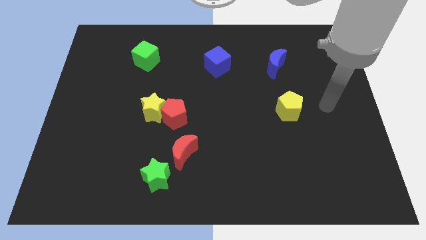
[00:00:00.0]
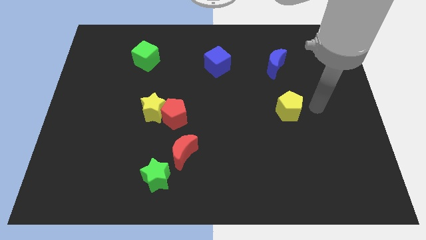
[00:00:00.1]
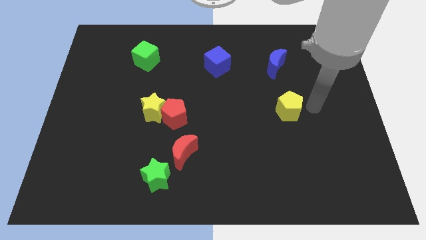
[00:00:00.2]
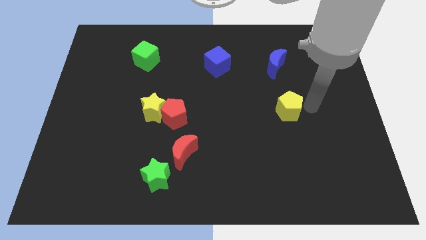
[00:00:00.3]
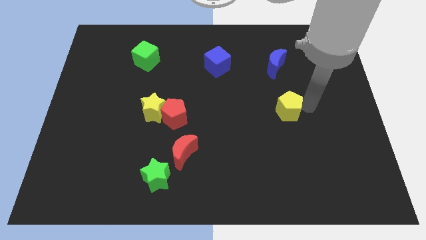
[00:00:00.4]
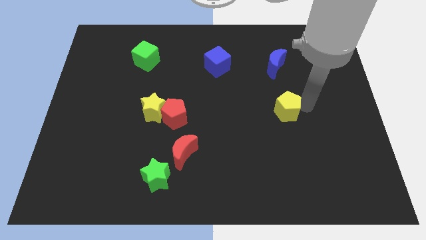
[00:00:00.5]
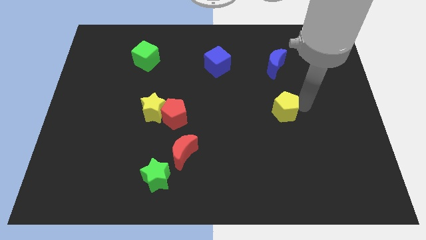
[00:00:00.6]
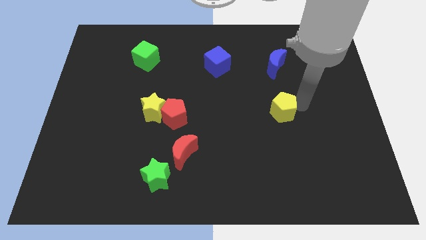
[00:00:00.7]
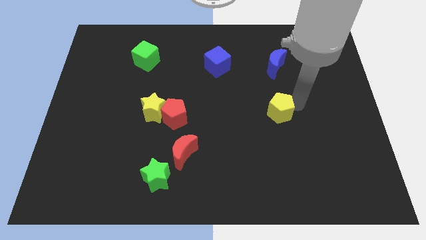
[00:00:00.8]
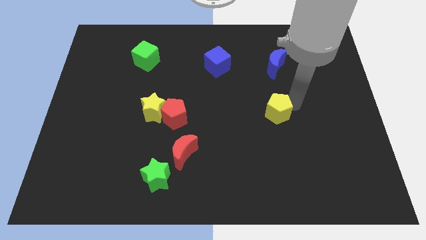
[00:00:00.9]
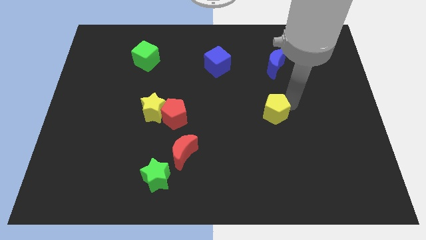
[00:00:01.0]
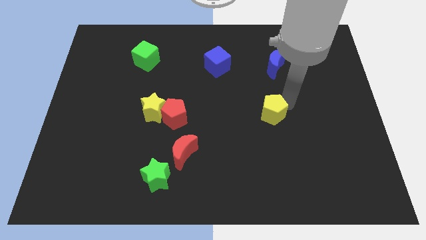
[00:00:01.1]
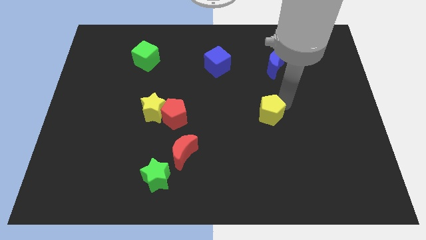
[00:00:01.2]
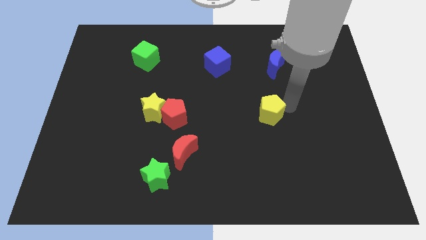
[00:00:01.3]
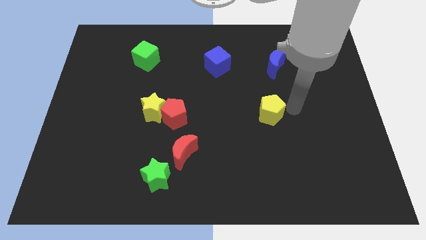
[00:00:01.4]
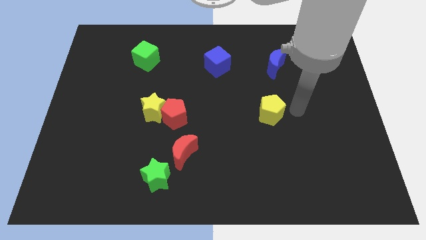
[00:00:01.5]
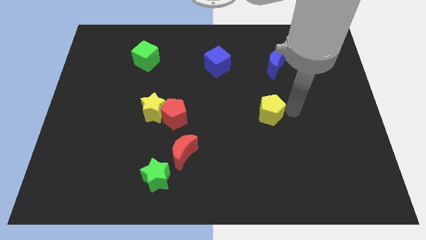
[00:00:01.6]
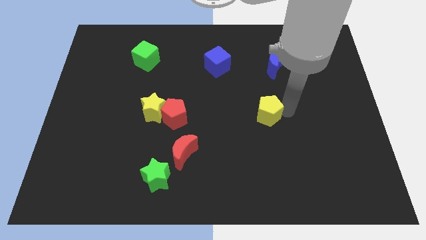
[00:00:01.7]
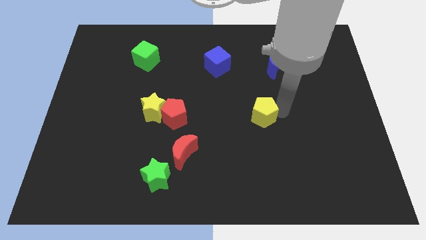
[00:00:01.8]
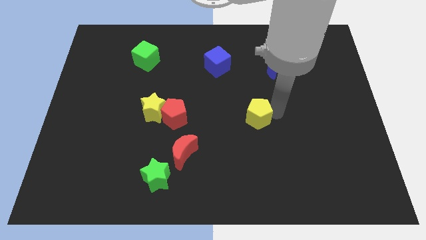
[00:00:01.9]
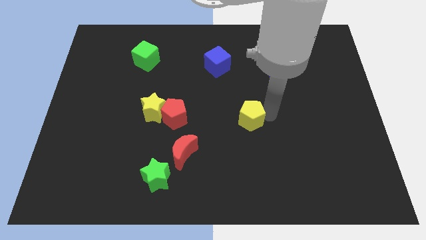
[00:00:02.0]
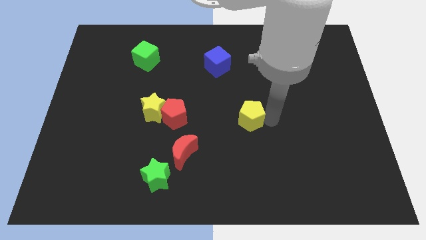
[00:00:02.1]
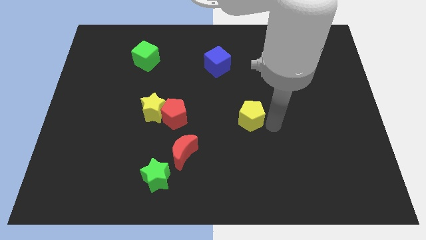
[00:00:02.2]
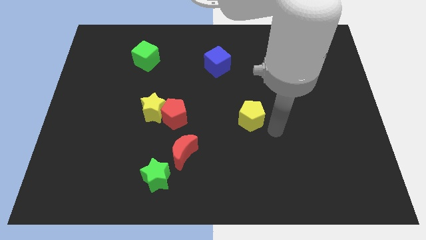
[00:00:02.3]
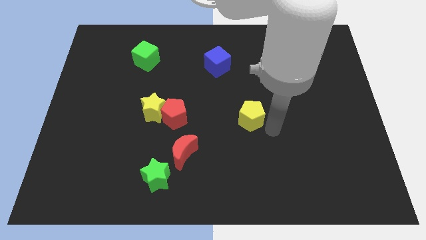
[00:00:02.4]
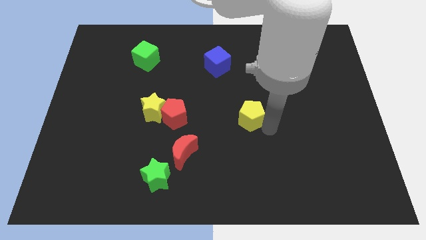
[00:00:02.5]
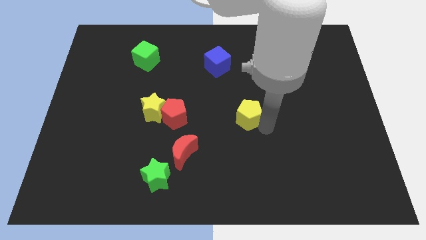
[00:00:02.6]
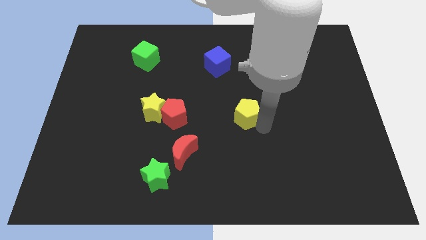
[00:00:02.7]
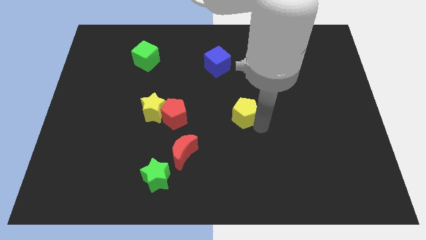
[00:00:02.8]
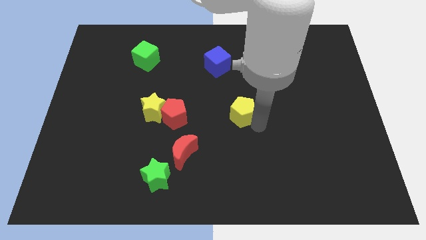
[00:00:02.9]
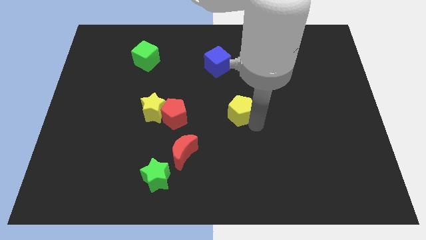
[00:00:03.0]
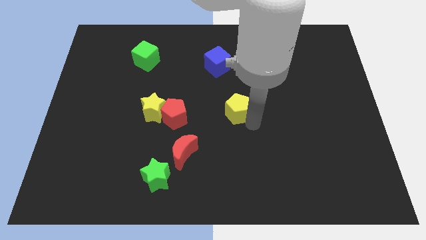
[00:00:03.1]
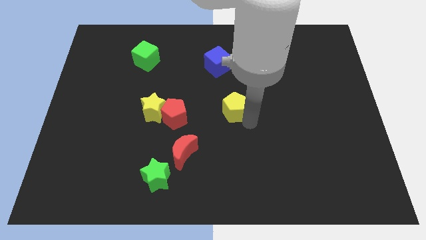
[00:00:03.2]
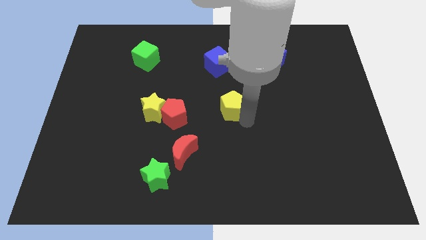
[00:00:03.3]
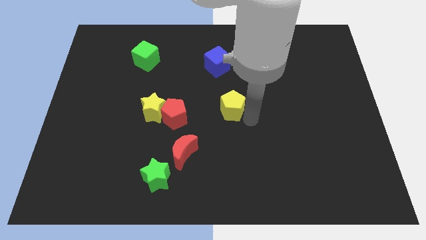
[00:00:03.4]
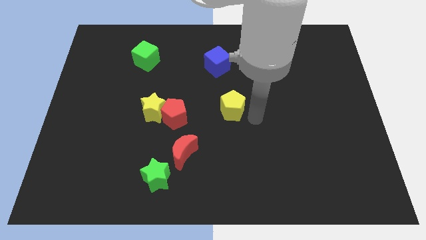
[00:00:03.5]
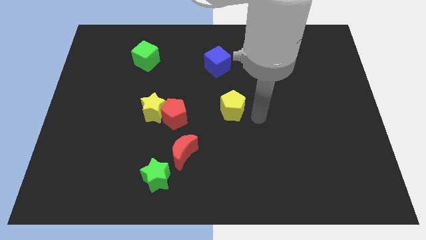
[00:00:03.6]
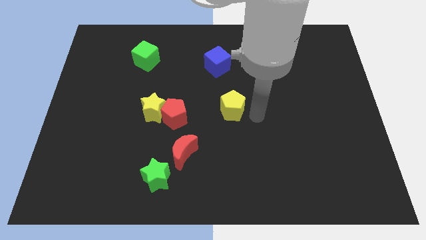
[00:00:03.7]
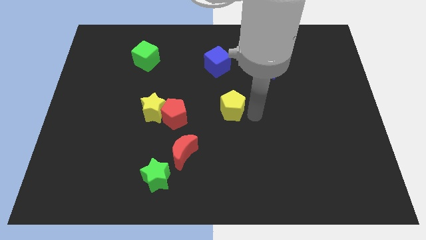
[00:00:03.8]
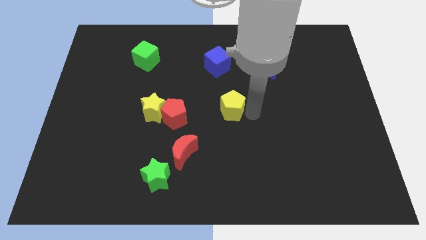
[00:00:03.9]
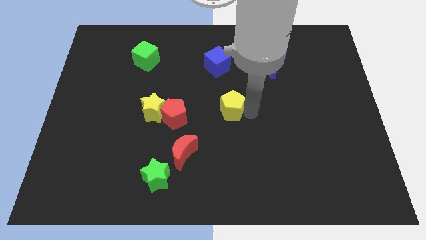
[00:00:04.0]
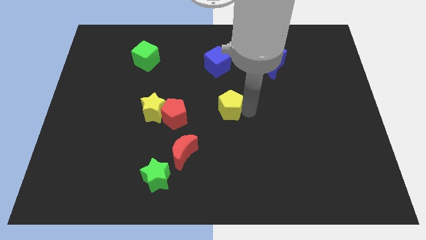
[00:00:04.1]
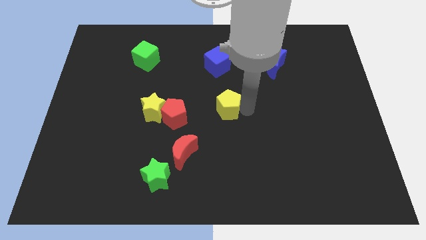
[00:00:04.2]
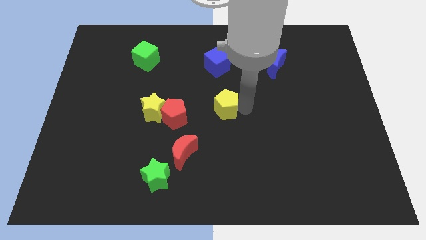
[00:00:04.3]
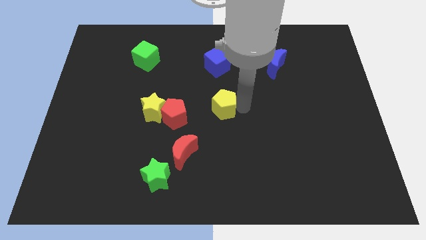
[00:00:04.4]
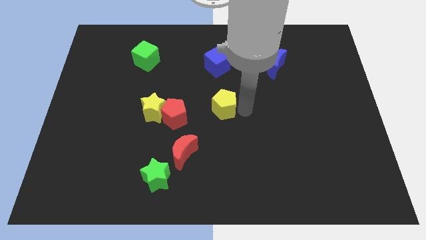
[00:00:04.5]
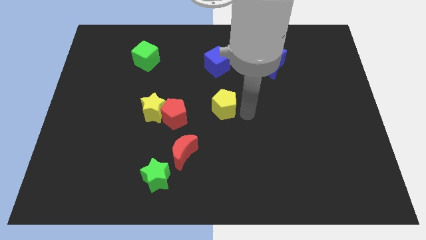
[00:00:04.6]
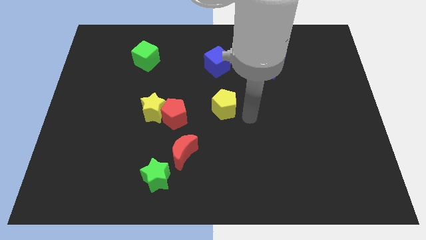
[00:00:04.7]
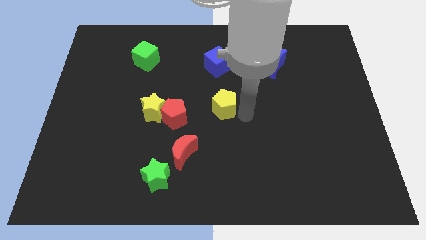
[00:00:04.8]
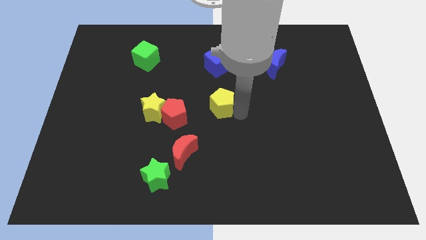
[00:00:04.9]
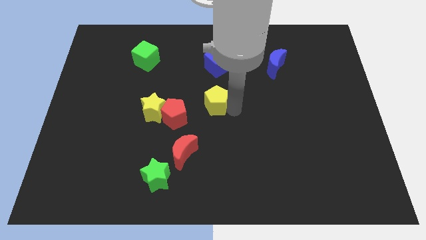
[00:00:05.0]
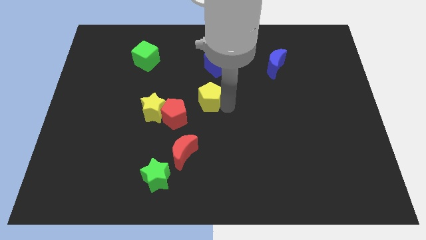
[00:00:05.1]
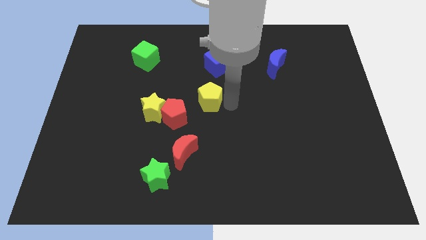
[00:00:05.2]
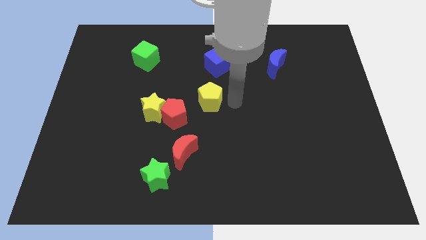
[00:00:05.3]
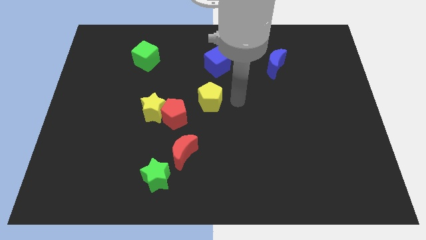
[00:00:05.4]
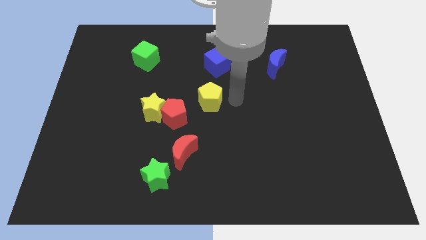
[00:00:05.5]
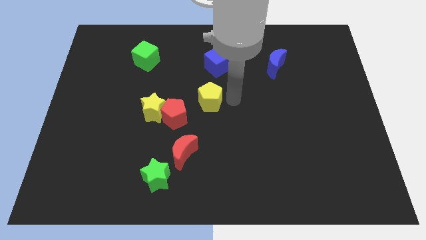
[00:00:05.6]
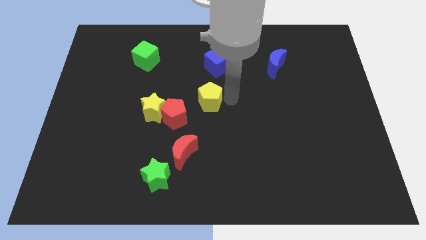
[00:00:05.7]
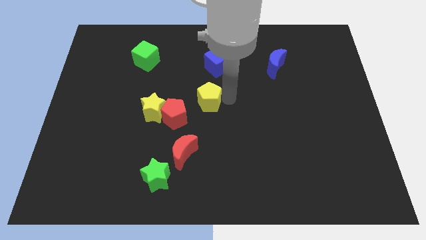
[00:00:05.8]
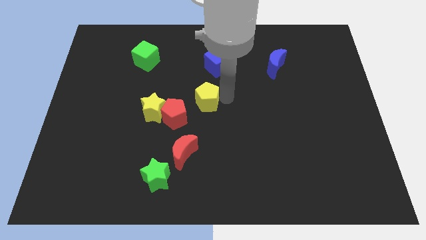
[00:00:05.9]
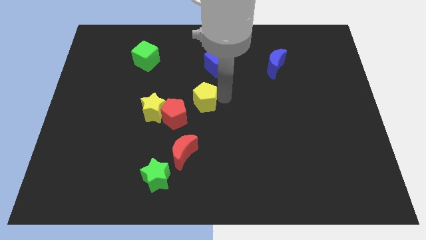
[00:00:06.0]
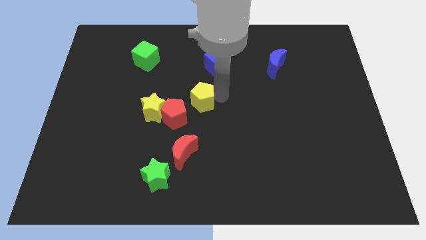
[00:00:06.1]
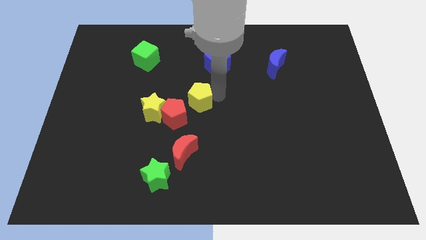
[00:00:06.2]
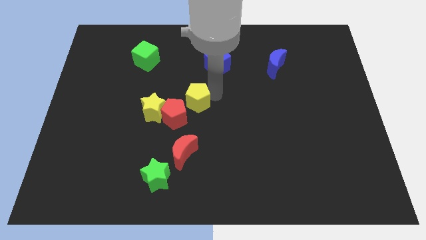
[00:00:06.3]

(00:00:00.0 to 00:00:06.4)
push the yellow pentagon diagonally up and to the right of the yellow star
